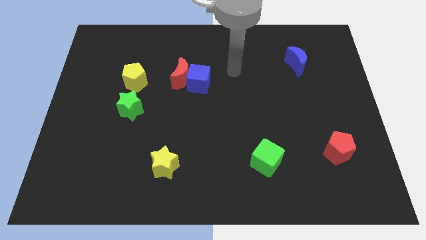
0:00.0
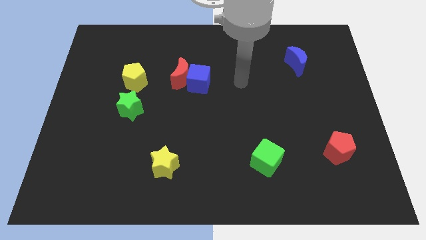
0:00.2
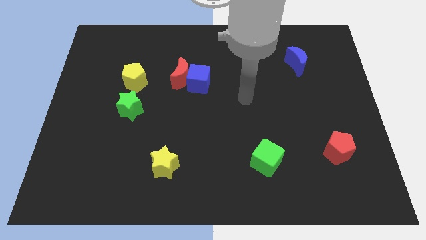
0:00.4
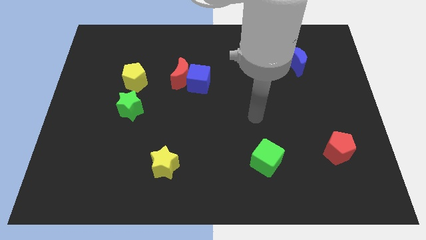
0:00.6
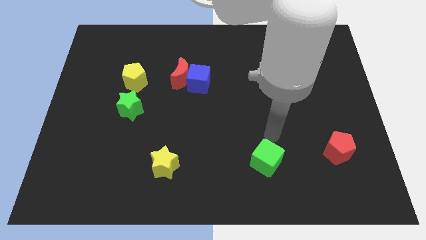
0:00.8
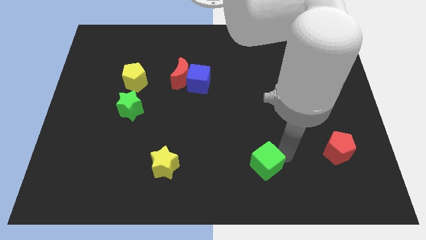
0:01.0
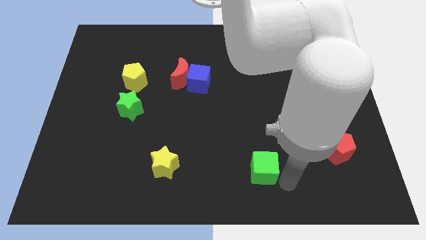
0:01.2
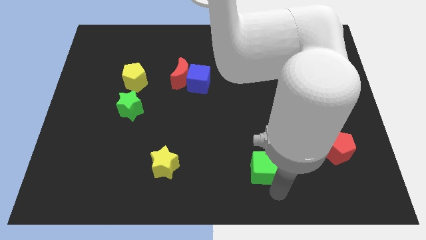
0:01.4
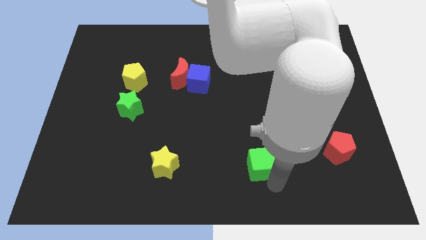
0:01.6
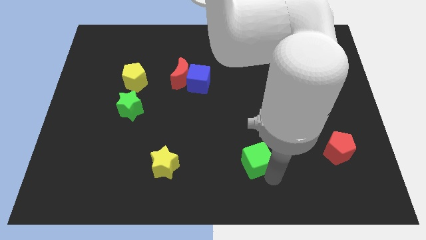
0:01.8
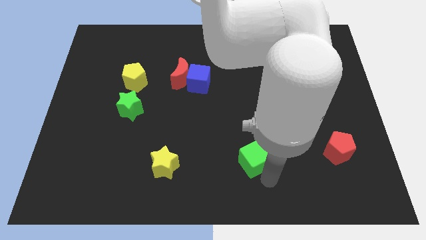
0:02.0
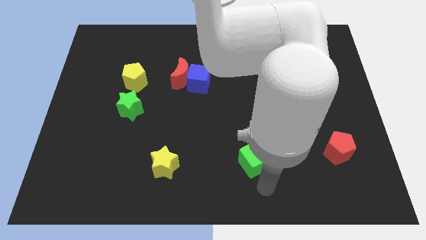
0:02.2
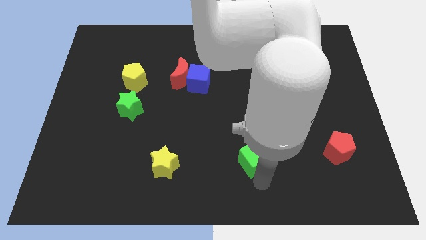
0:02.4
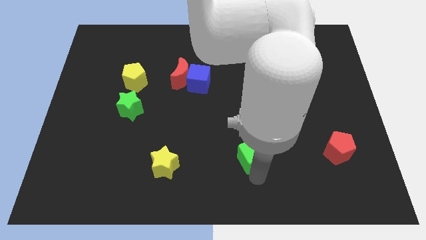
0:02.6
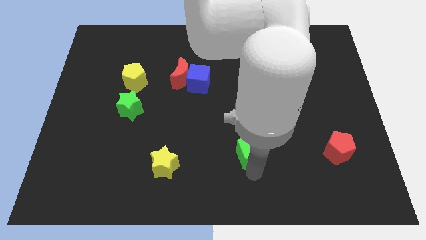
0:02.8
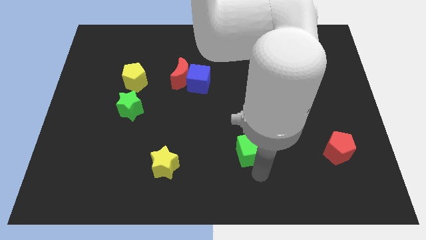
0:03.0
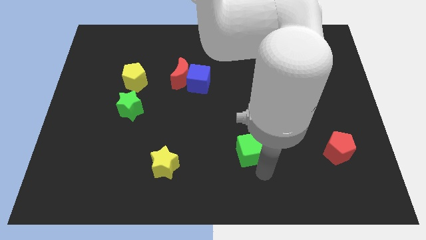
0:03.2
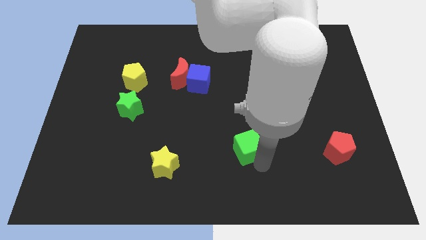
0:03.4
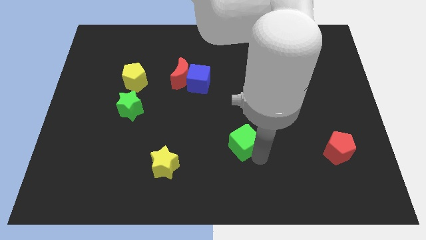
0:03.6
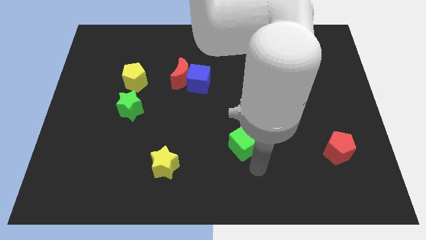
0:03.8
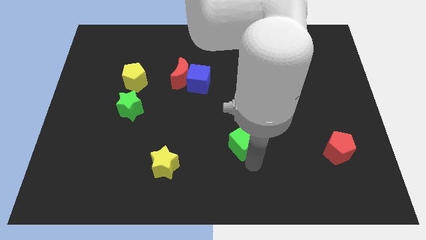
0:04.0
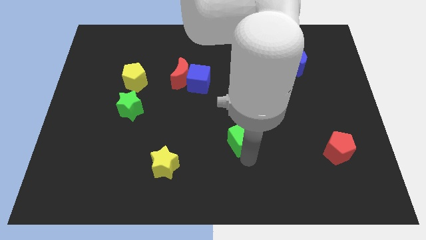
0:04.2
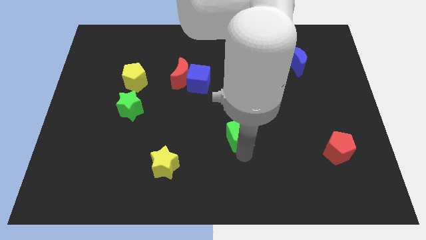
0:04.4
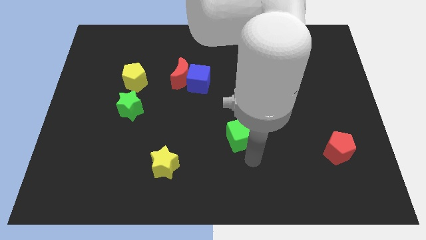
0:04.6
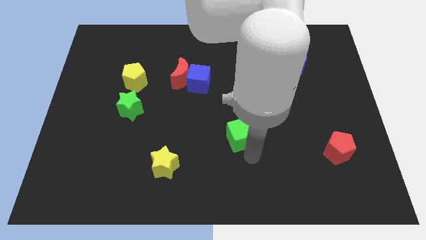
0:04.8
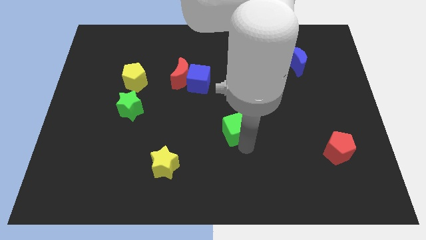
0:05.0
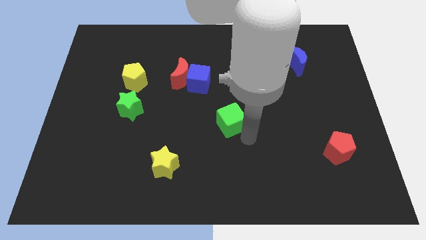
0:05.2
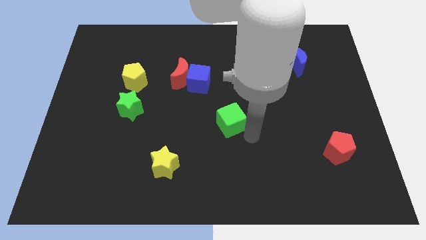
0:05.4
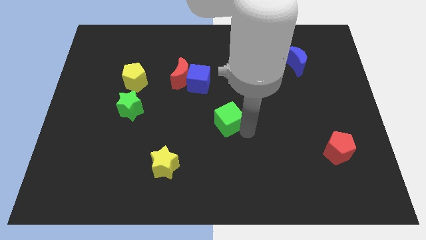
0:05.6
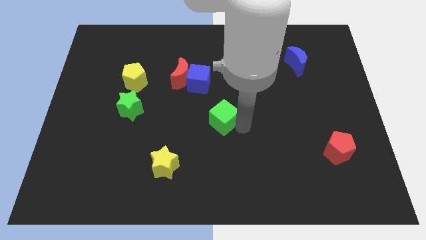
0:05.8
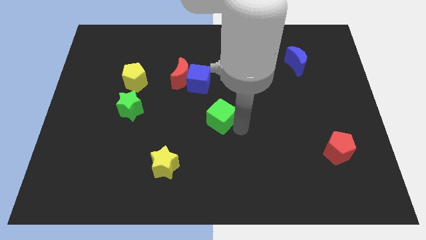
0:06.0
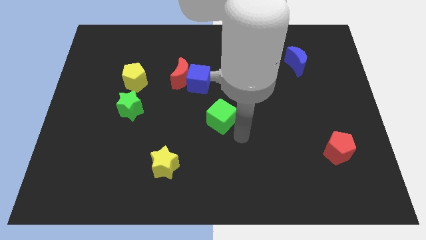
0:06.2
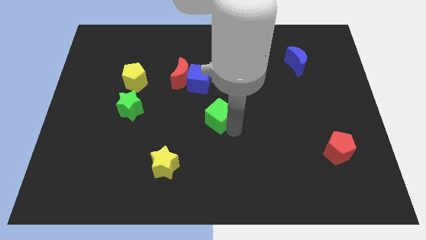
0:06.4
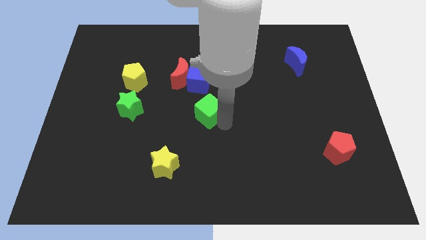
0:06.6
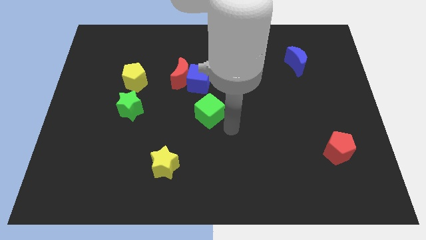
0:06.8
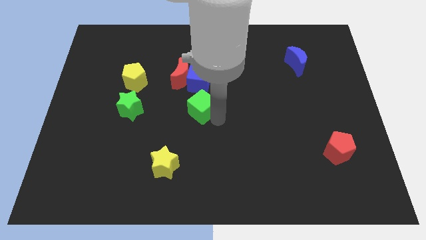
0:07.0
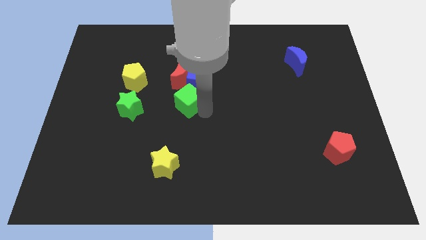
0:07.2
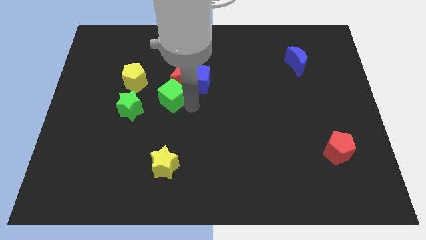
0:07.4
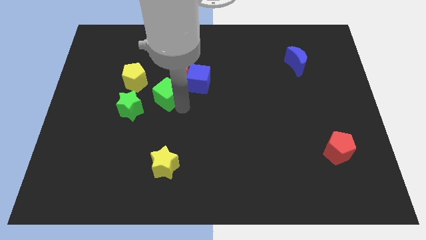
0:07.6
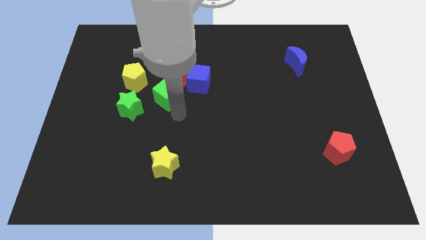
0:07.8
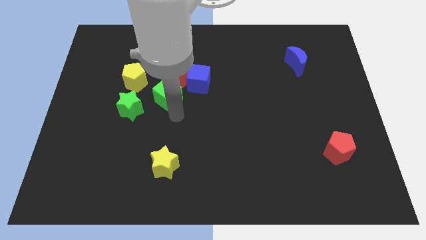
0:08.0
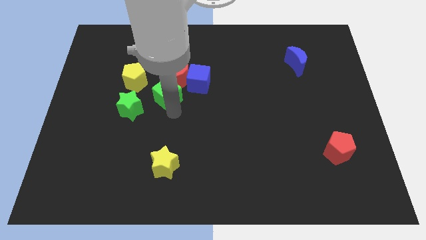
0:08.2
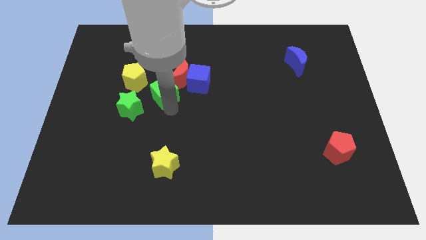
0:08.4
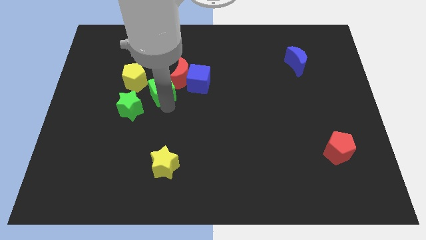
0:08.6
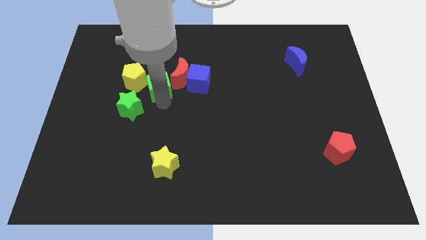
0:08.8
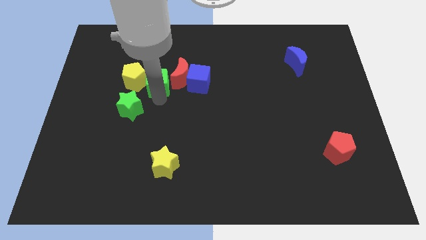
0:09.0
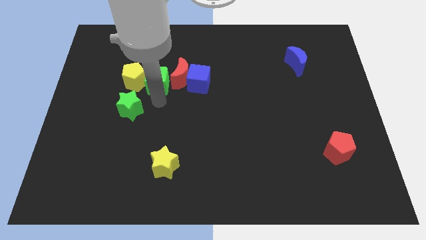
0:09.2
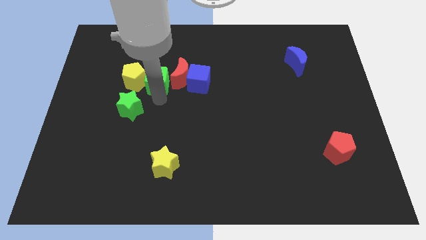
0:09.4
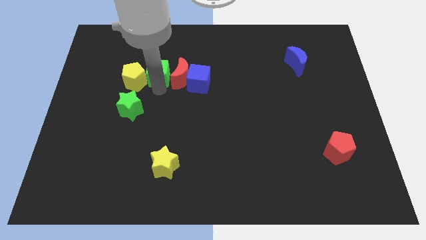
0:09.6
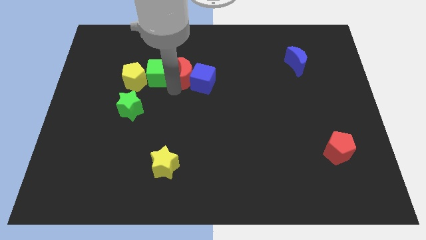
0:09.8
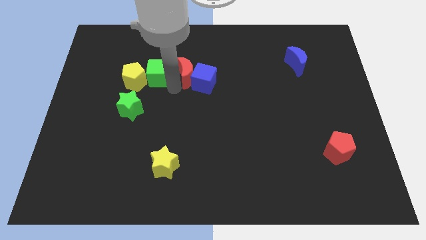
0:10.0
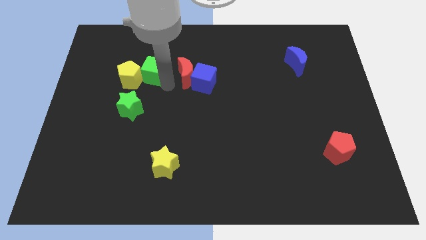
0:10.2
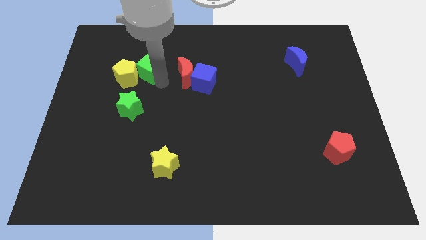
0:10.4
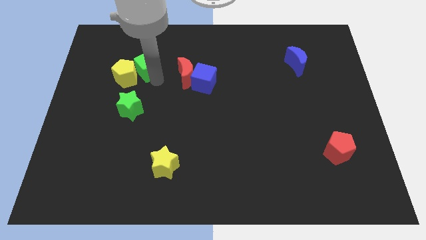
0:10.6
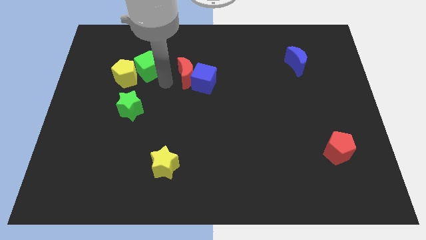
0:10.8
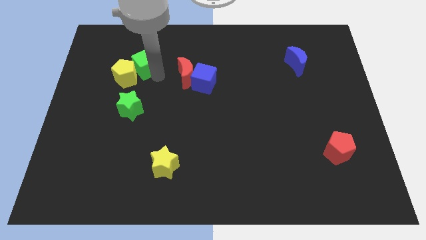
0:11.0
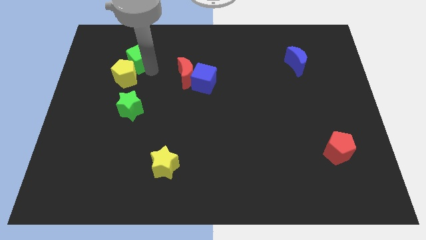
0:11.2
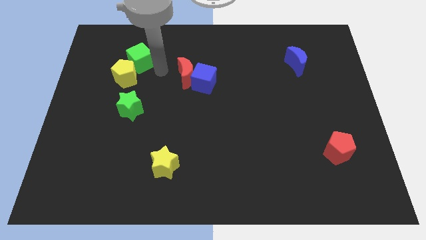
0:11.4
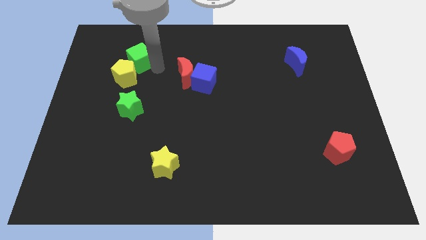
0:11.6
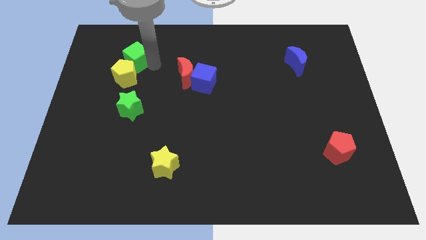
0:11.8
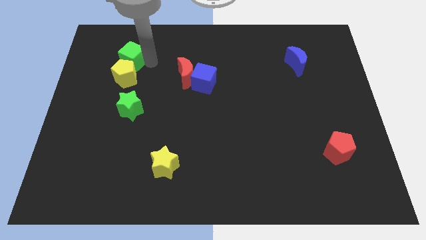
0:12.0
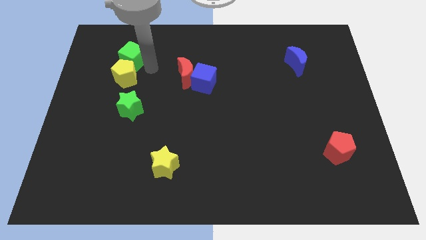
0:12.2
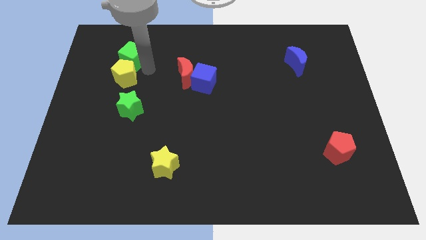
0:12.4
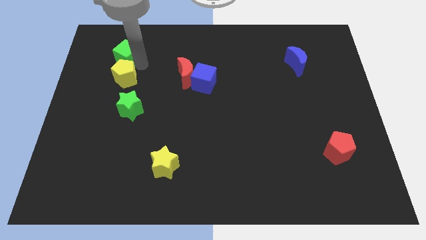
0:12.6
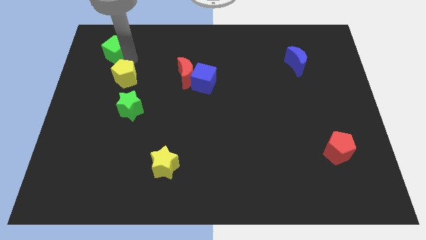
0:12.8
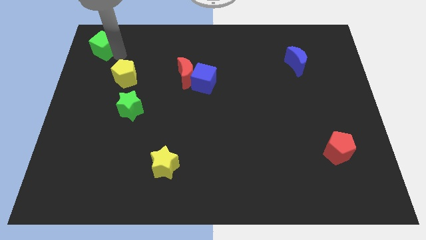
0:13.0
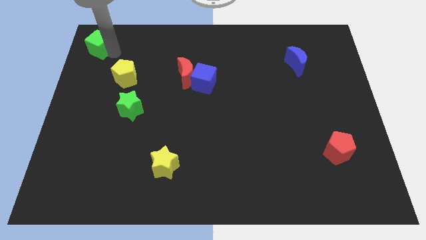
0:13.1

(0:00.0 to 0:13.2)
move the green cube to the upper left corner
